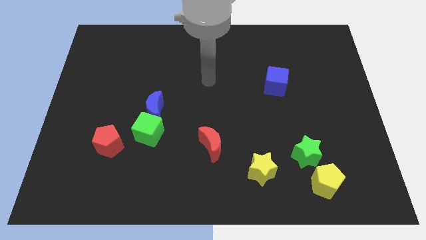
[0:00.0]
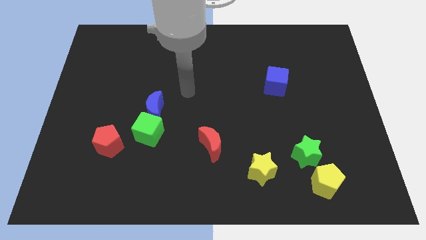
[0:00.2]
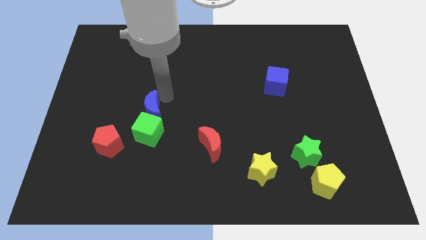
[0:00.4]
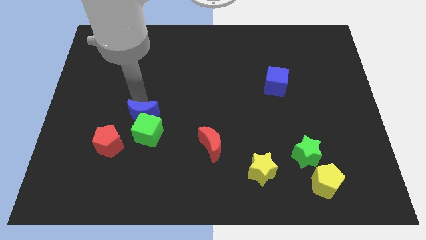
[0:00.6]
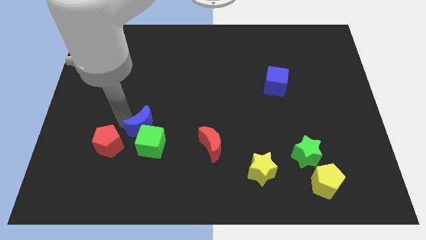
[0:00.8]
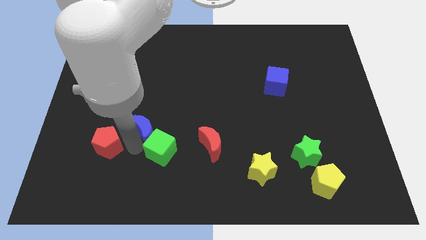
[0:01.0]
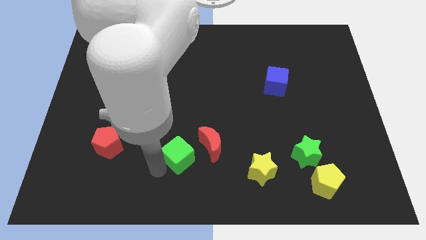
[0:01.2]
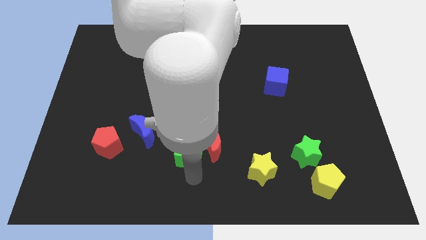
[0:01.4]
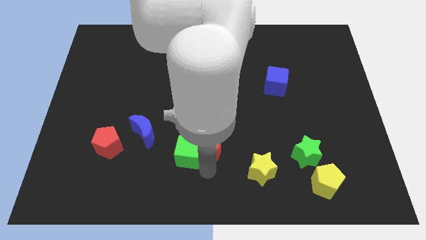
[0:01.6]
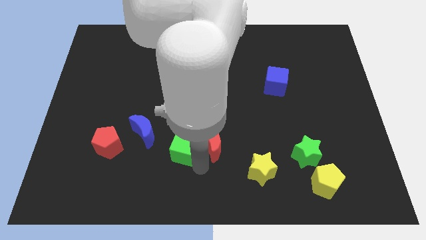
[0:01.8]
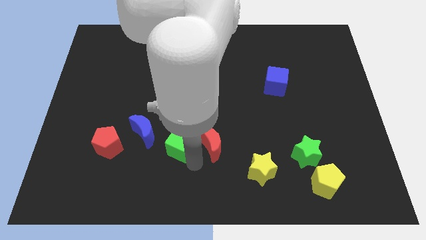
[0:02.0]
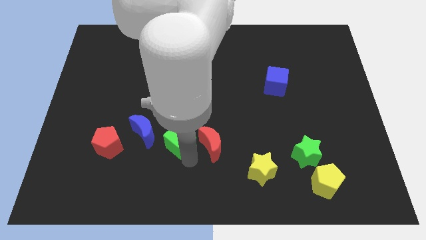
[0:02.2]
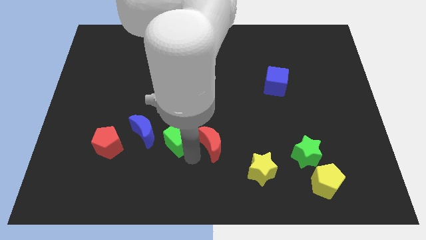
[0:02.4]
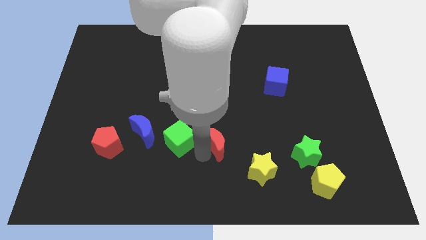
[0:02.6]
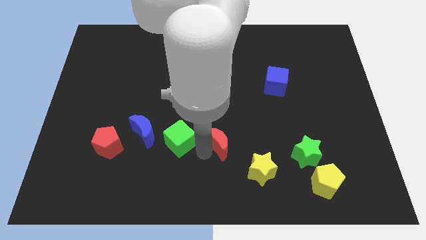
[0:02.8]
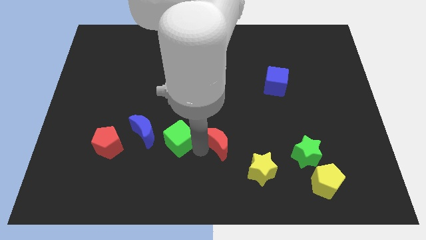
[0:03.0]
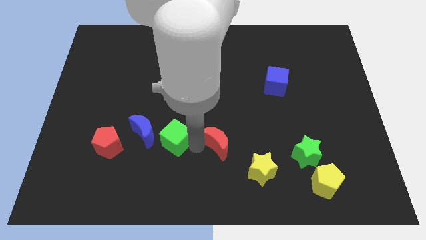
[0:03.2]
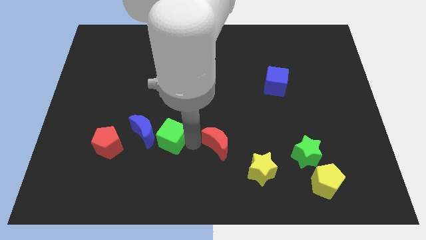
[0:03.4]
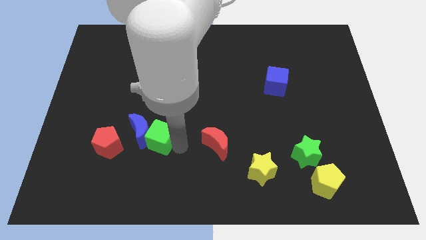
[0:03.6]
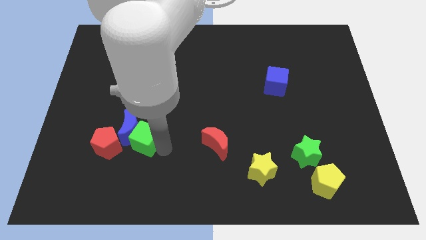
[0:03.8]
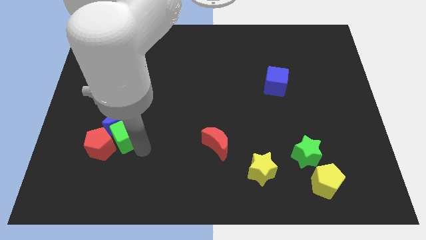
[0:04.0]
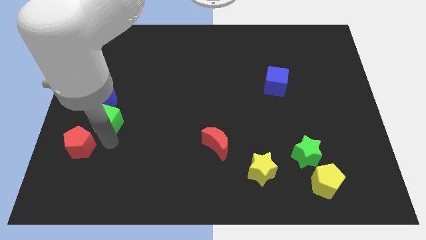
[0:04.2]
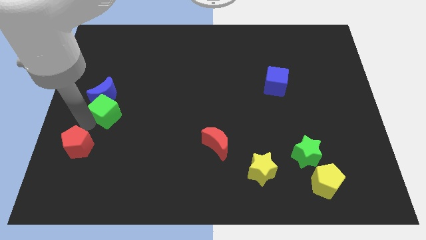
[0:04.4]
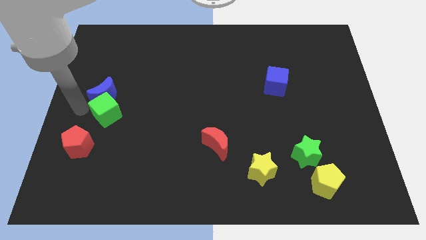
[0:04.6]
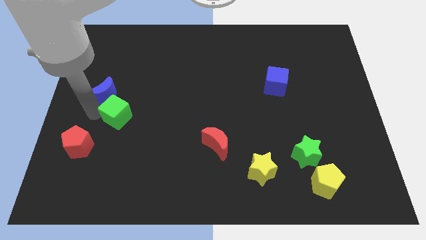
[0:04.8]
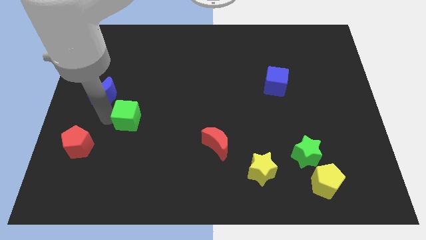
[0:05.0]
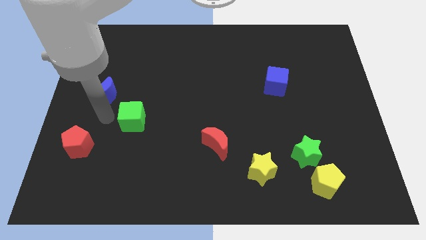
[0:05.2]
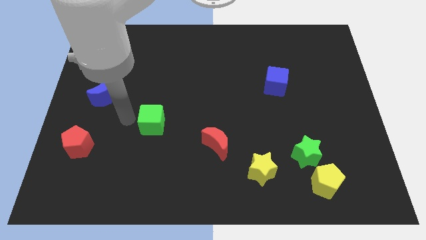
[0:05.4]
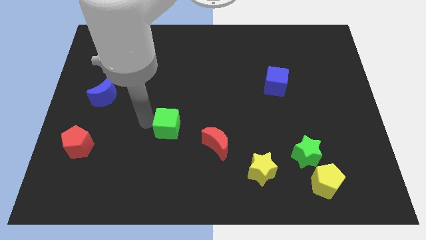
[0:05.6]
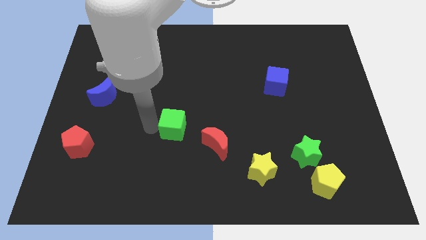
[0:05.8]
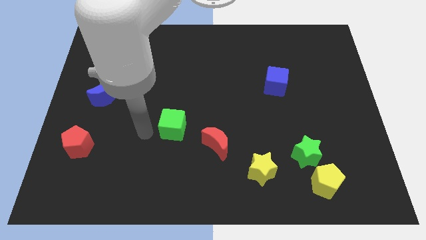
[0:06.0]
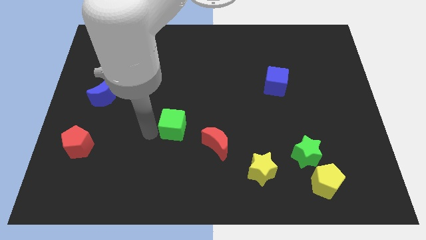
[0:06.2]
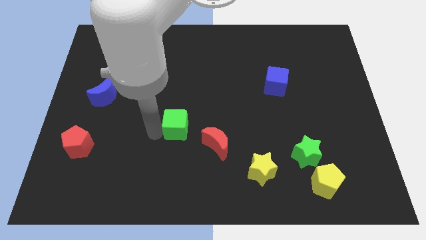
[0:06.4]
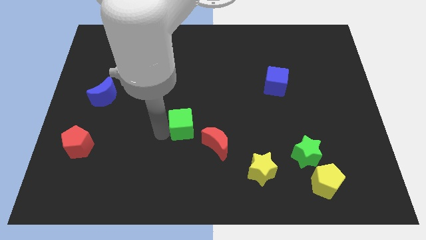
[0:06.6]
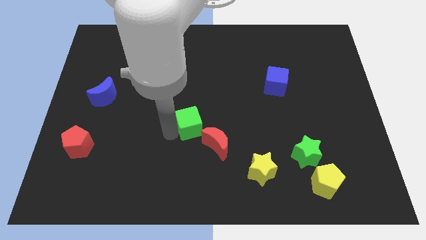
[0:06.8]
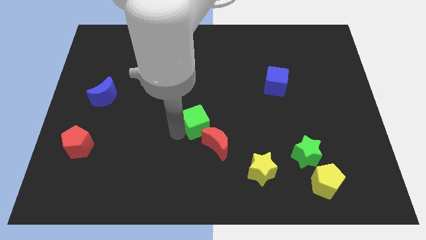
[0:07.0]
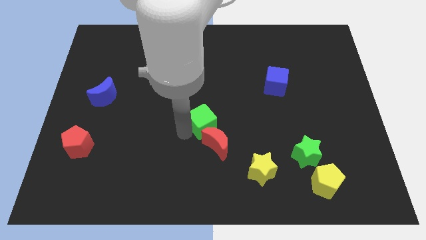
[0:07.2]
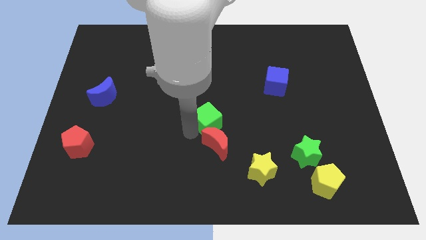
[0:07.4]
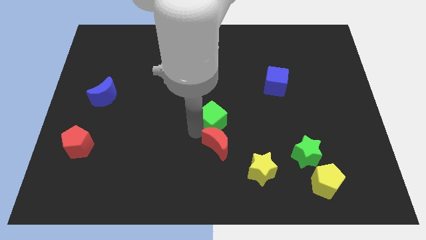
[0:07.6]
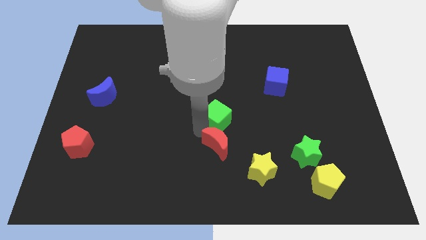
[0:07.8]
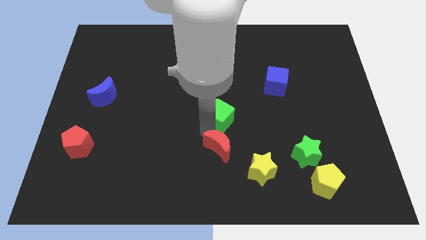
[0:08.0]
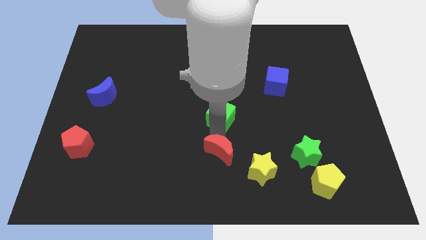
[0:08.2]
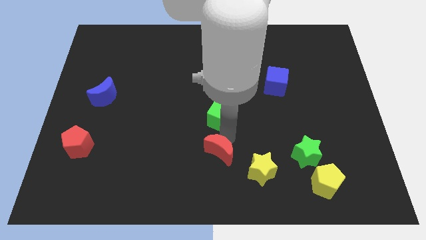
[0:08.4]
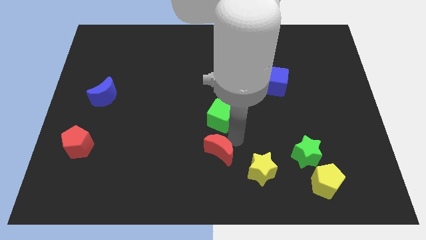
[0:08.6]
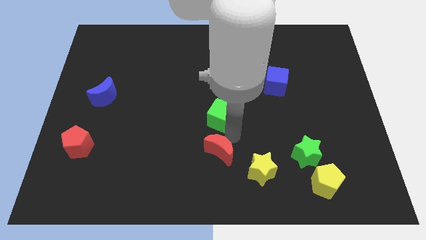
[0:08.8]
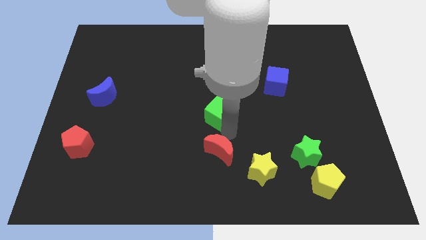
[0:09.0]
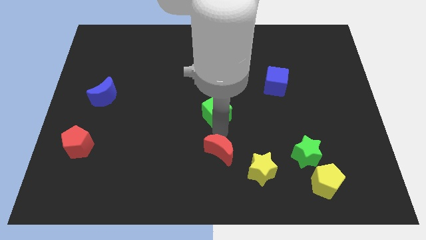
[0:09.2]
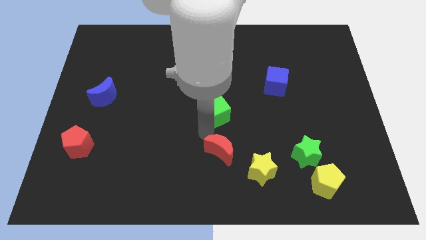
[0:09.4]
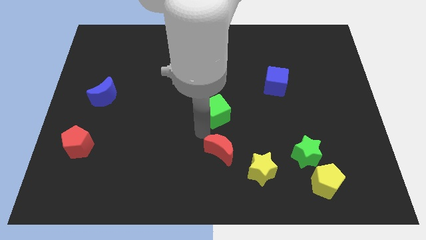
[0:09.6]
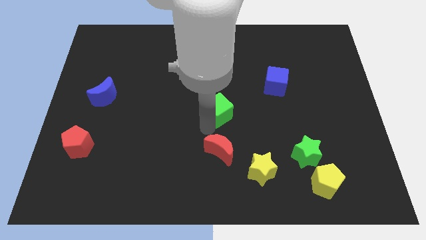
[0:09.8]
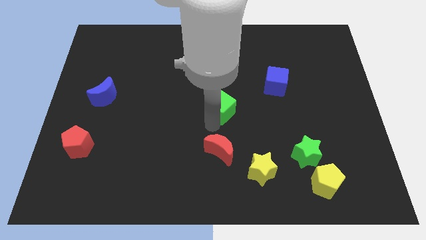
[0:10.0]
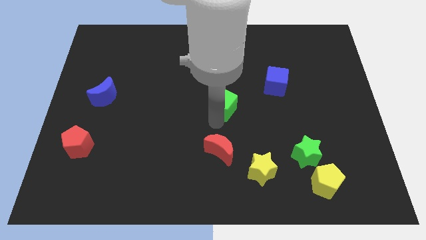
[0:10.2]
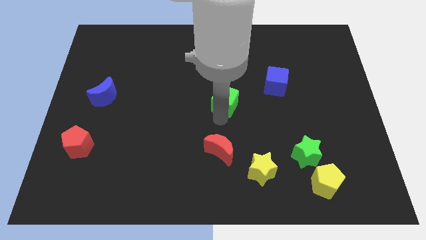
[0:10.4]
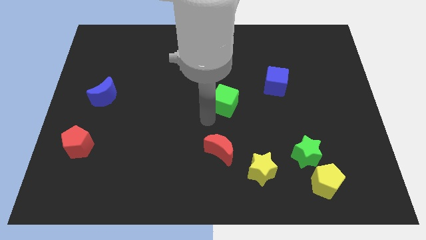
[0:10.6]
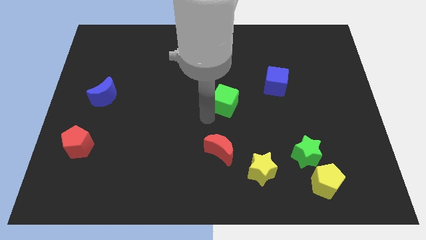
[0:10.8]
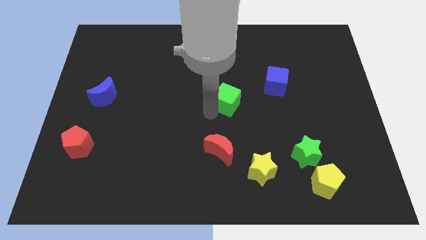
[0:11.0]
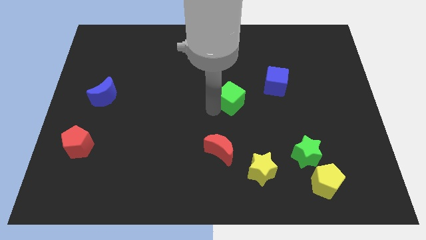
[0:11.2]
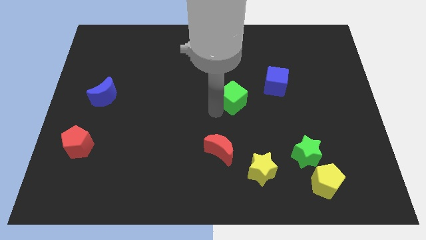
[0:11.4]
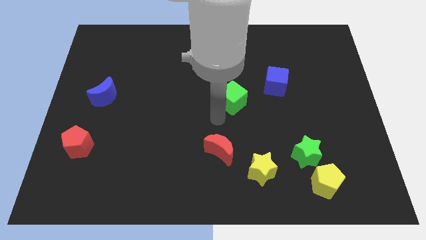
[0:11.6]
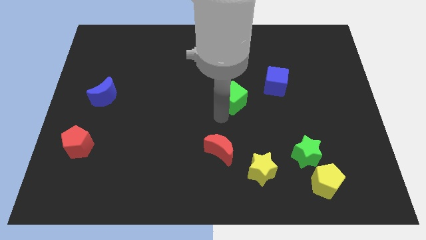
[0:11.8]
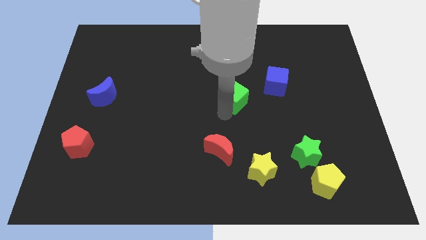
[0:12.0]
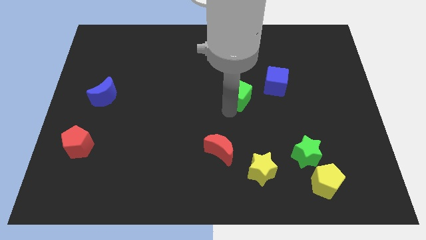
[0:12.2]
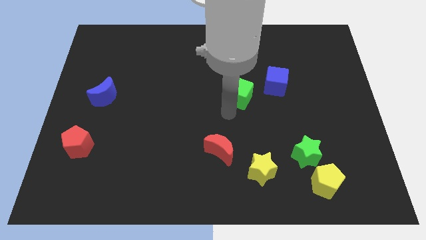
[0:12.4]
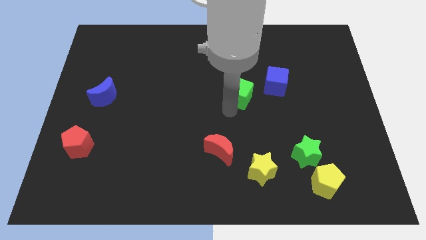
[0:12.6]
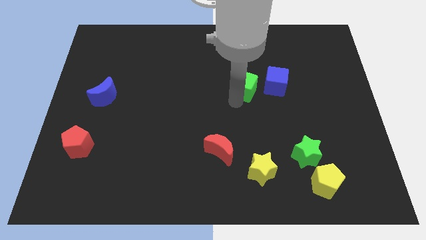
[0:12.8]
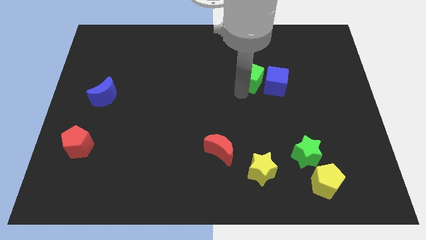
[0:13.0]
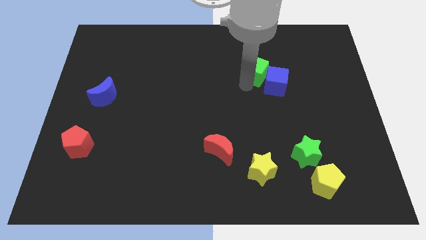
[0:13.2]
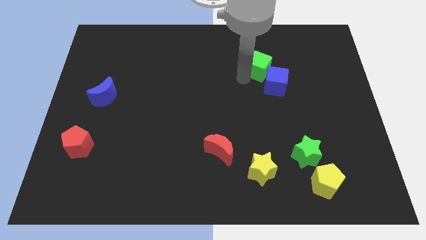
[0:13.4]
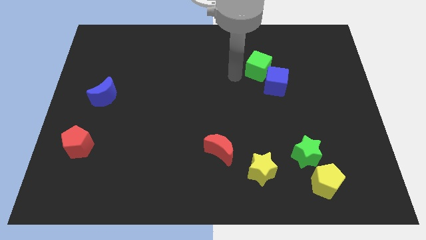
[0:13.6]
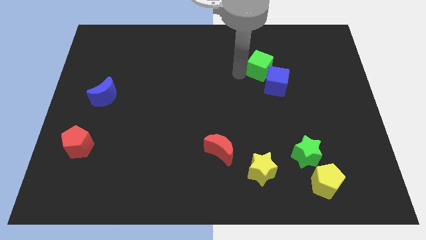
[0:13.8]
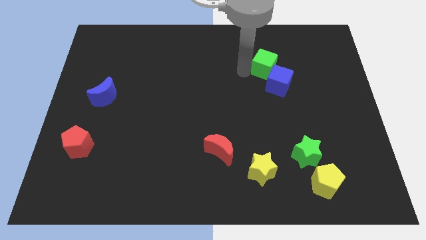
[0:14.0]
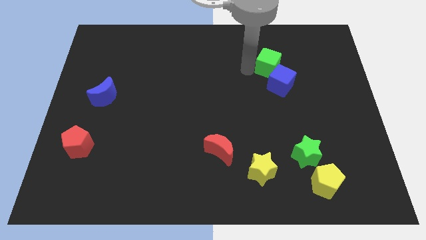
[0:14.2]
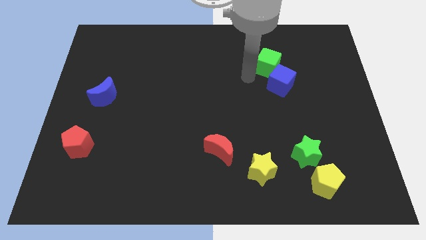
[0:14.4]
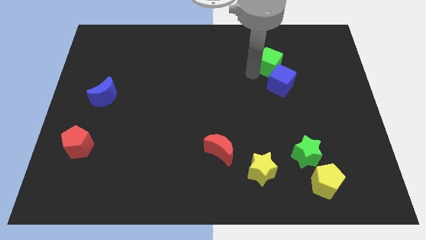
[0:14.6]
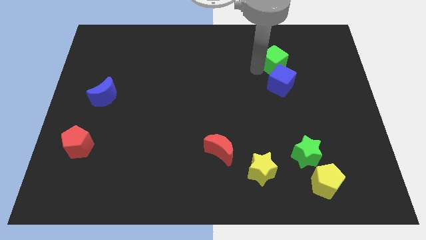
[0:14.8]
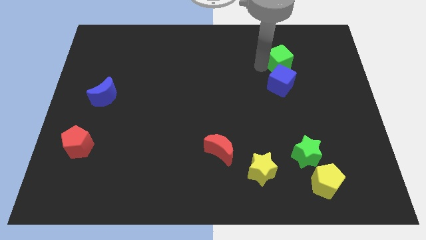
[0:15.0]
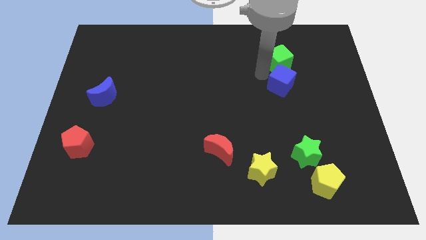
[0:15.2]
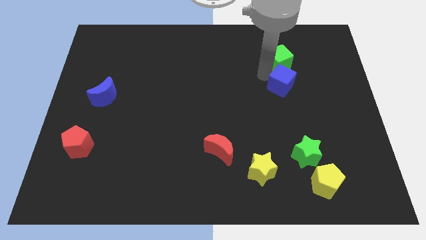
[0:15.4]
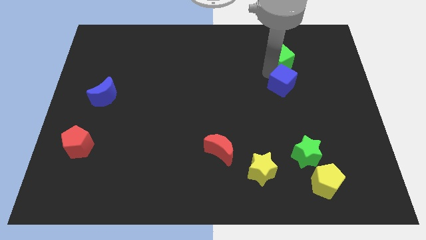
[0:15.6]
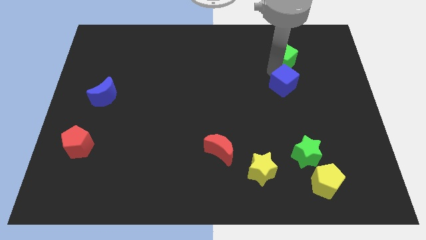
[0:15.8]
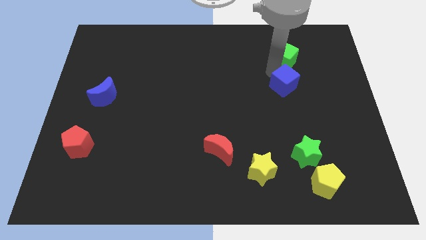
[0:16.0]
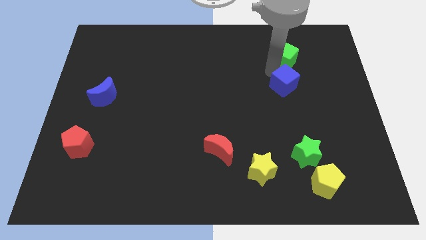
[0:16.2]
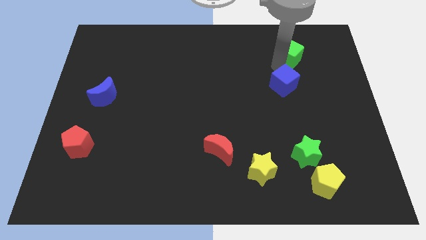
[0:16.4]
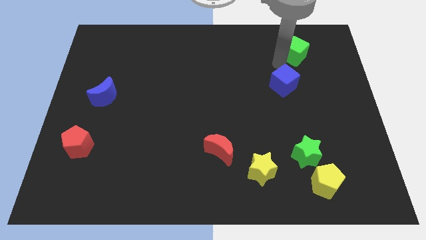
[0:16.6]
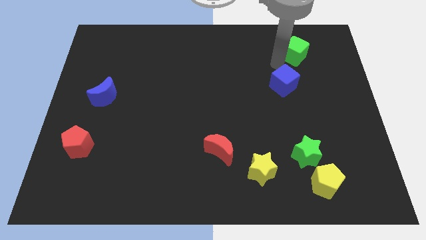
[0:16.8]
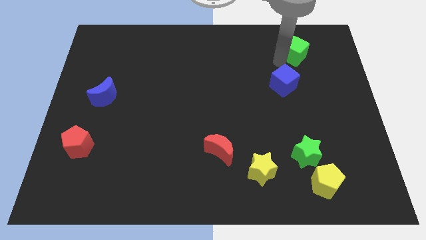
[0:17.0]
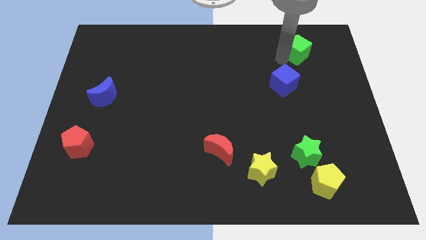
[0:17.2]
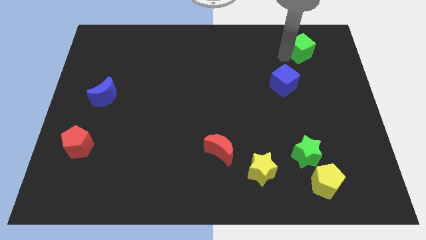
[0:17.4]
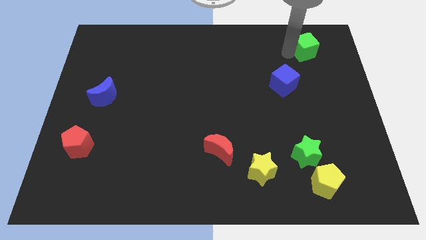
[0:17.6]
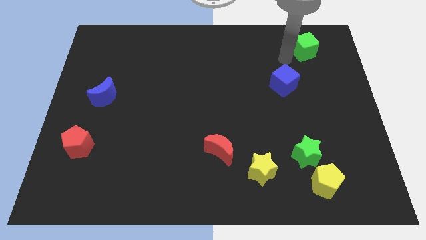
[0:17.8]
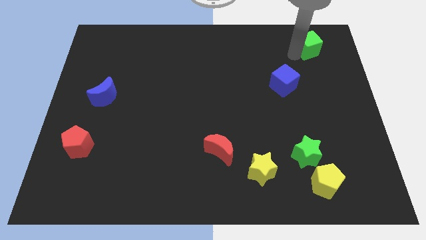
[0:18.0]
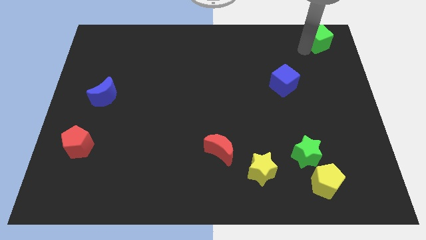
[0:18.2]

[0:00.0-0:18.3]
move the green cube to the upper right corner
